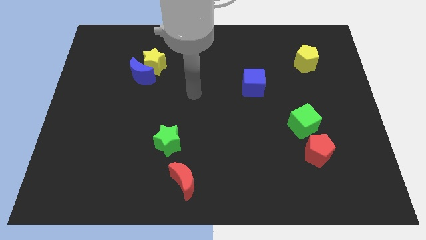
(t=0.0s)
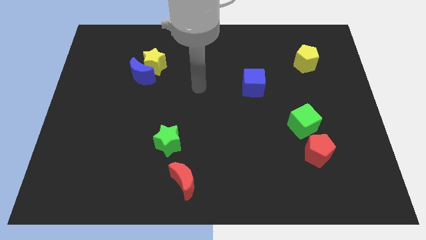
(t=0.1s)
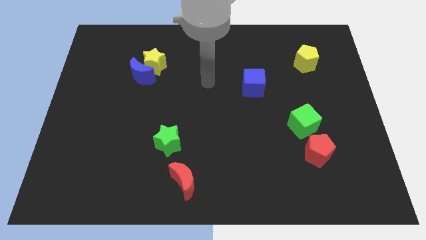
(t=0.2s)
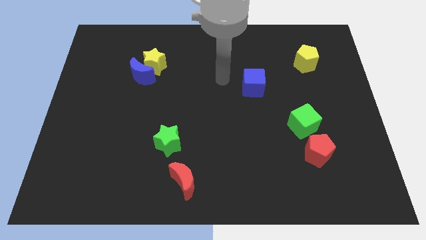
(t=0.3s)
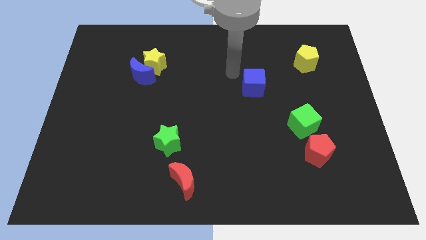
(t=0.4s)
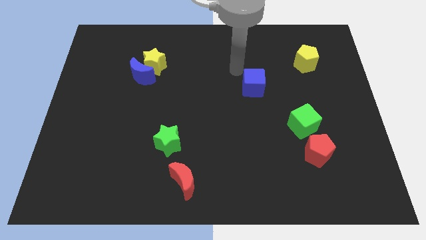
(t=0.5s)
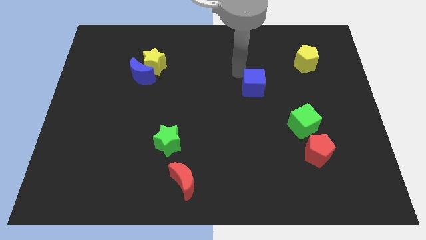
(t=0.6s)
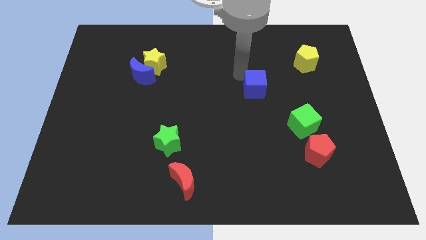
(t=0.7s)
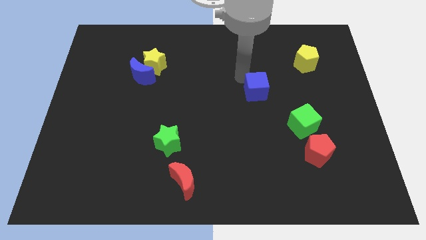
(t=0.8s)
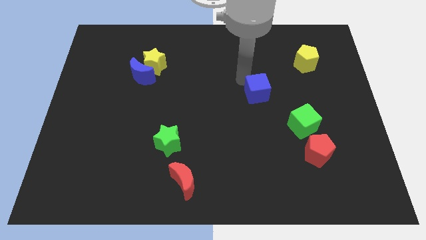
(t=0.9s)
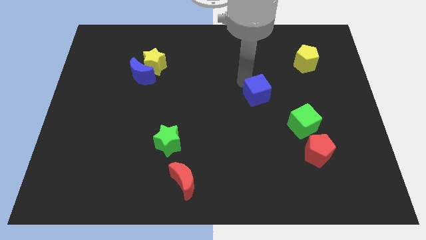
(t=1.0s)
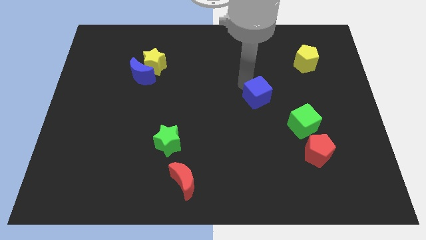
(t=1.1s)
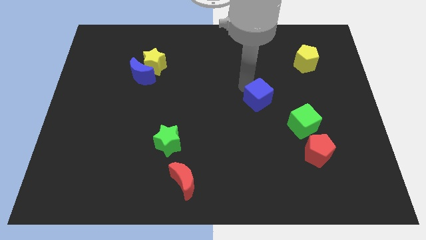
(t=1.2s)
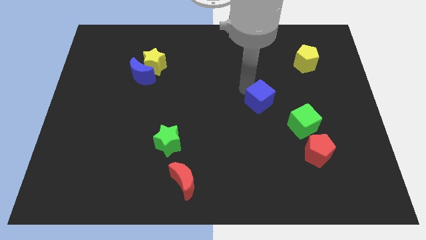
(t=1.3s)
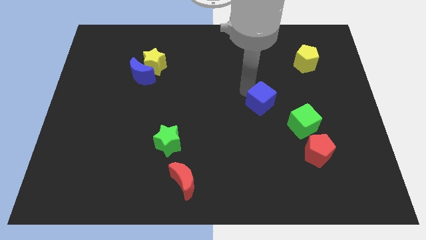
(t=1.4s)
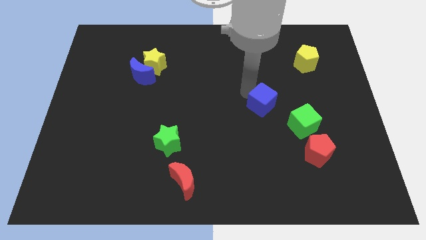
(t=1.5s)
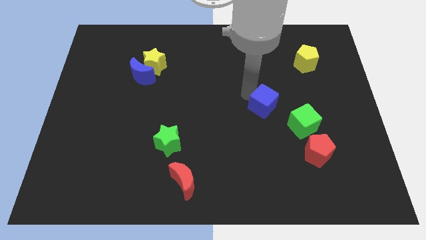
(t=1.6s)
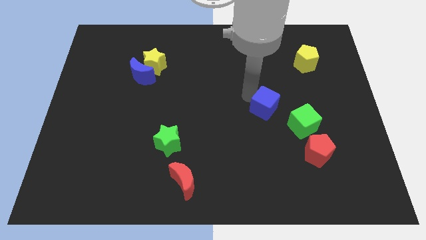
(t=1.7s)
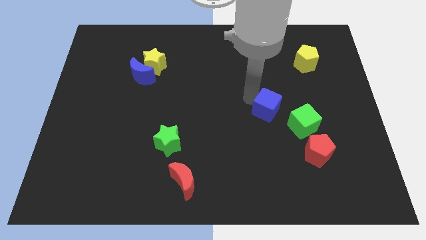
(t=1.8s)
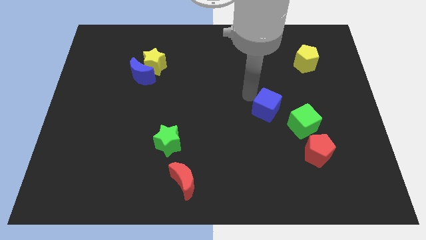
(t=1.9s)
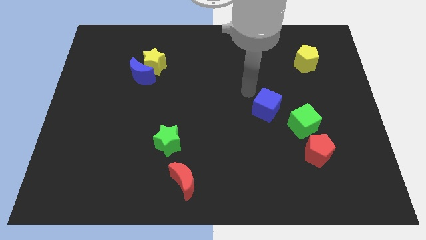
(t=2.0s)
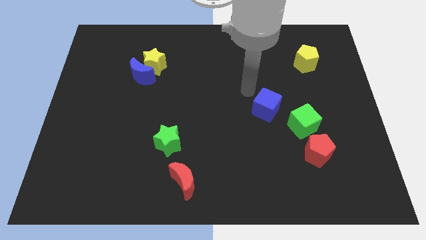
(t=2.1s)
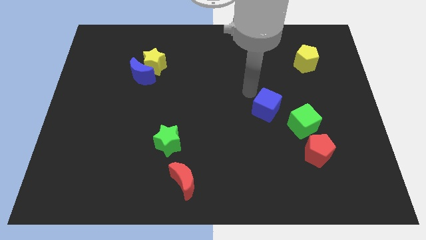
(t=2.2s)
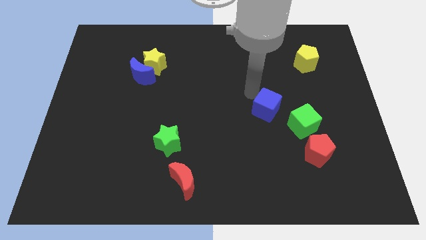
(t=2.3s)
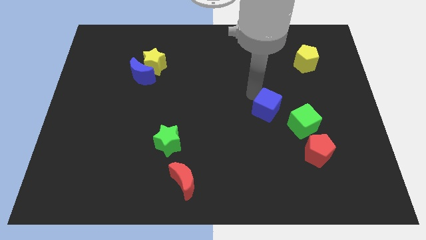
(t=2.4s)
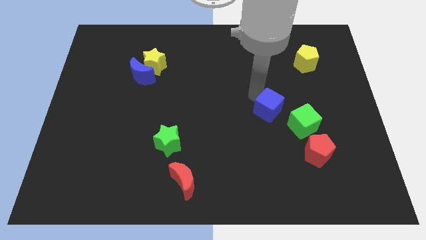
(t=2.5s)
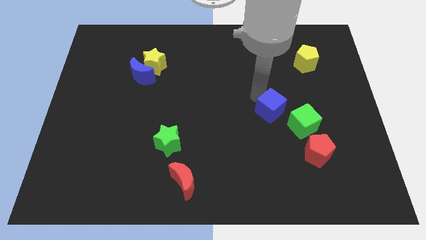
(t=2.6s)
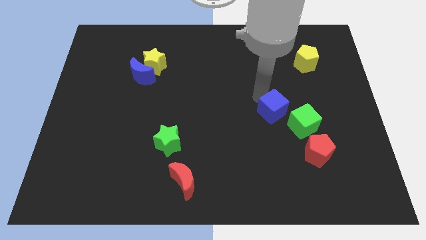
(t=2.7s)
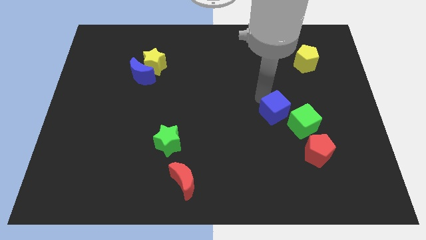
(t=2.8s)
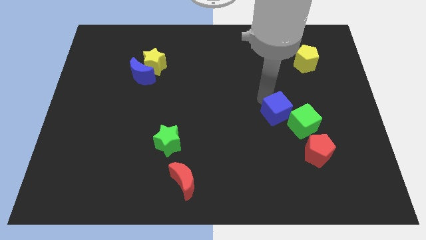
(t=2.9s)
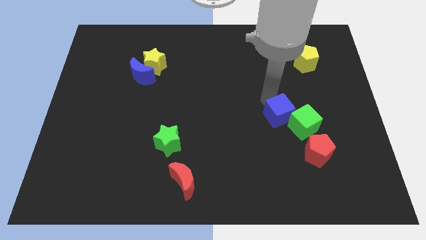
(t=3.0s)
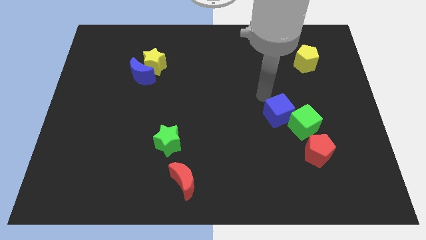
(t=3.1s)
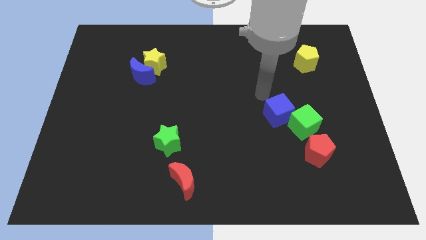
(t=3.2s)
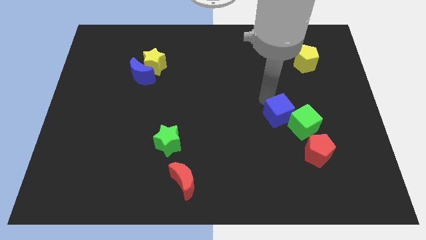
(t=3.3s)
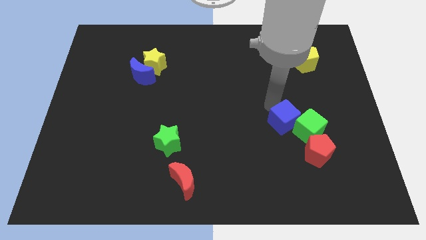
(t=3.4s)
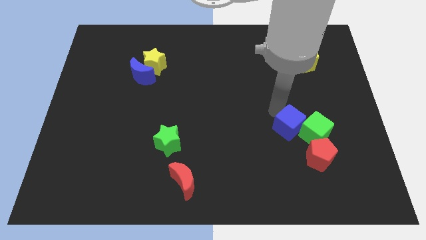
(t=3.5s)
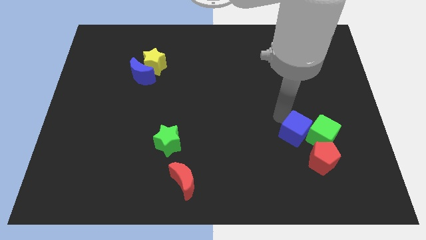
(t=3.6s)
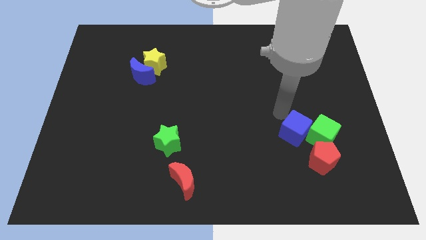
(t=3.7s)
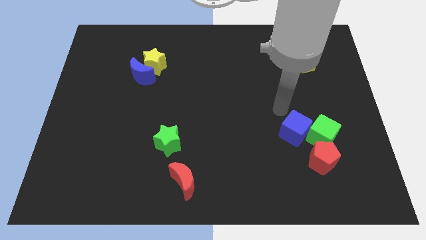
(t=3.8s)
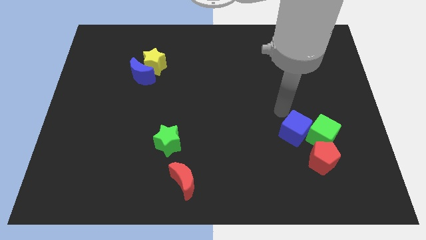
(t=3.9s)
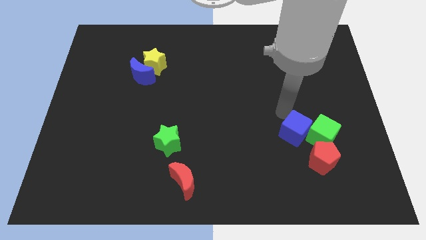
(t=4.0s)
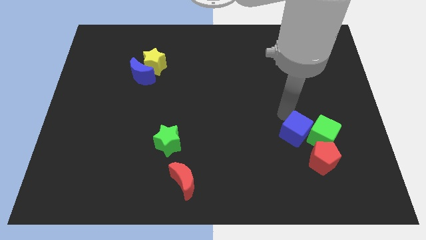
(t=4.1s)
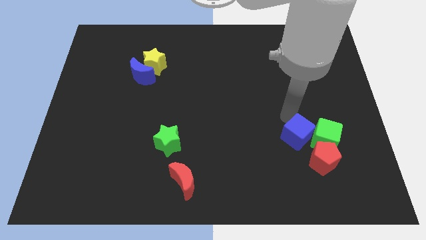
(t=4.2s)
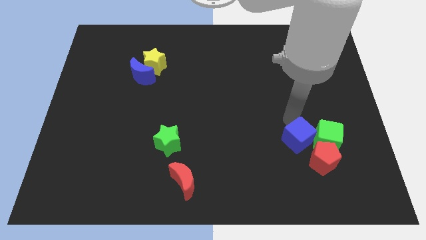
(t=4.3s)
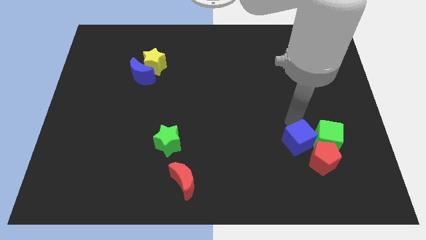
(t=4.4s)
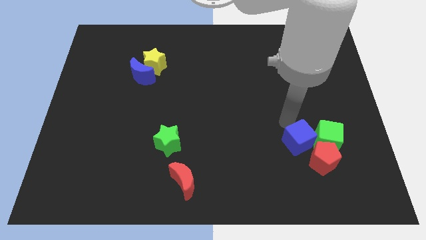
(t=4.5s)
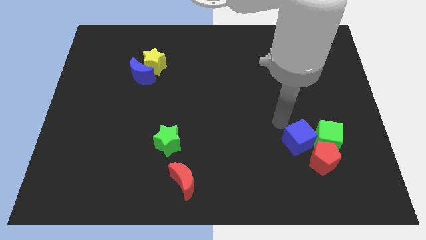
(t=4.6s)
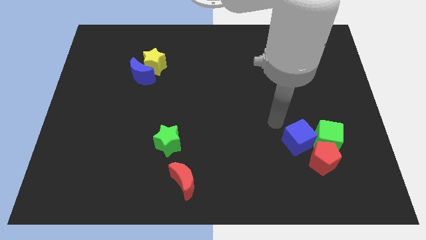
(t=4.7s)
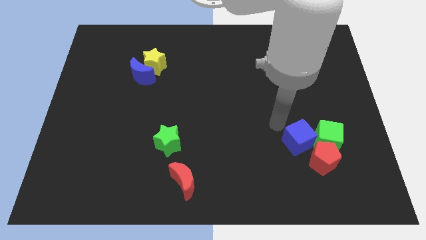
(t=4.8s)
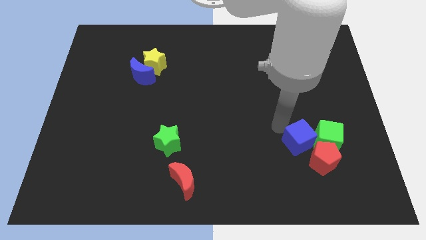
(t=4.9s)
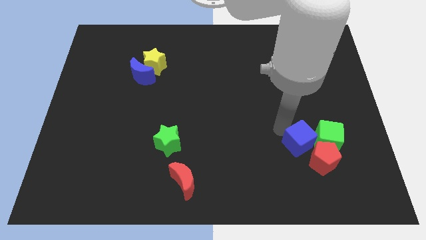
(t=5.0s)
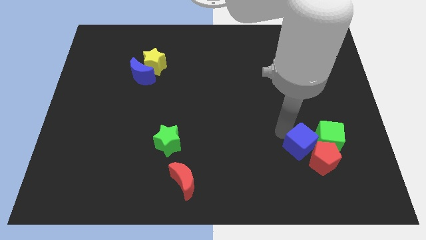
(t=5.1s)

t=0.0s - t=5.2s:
put the blue cube towards the red pentagon

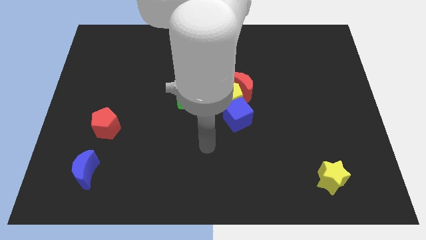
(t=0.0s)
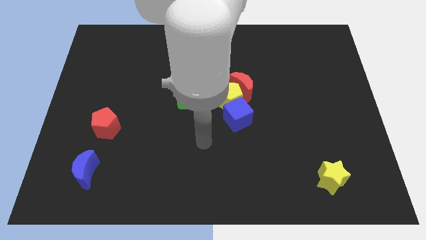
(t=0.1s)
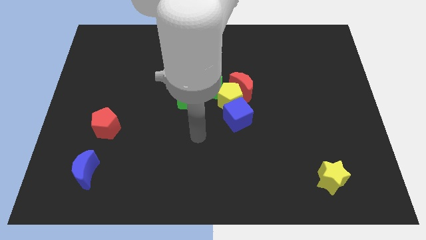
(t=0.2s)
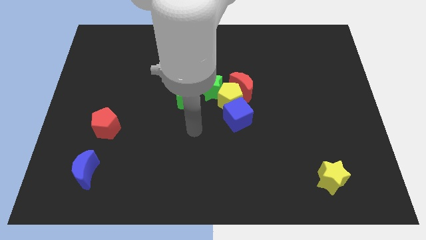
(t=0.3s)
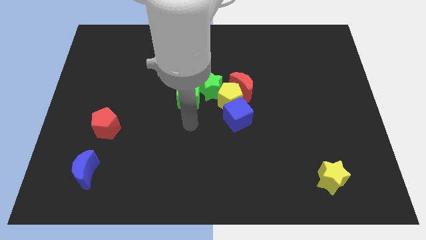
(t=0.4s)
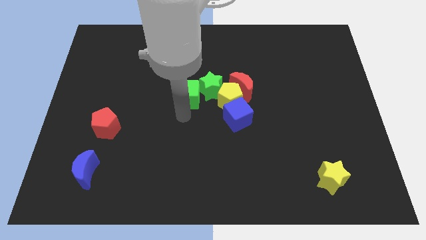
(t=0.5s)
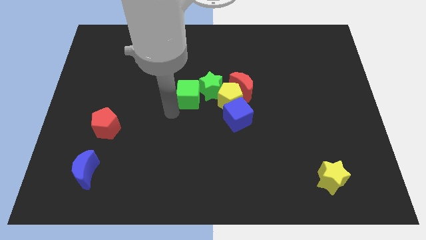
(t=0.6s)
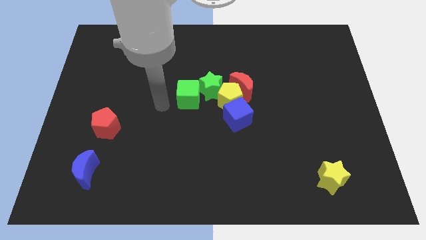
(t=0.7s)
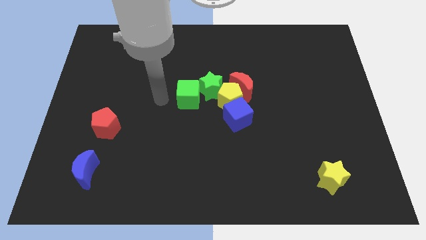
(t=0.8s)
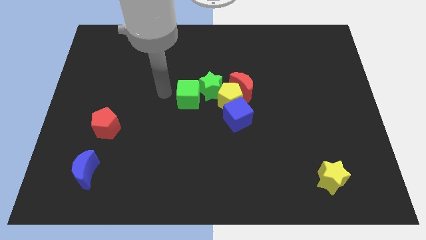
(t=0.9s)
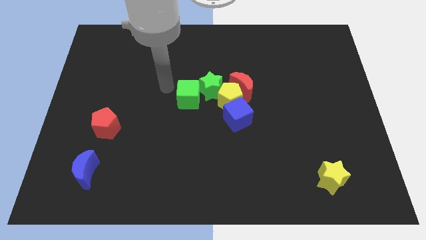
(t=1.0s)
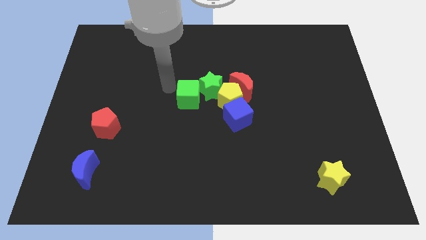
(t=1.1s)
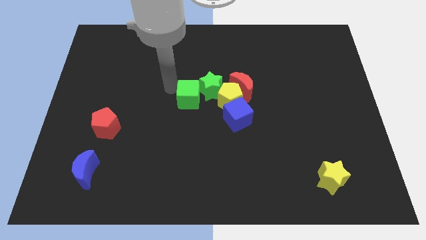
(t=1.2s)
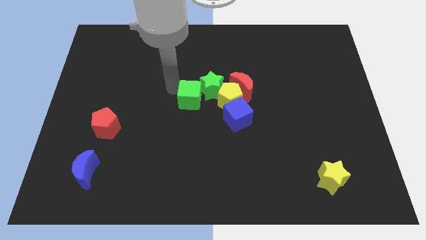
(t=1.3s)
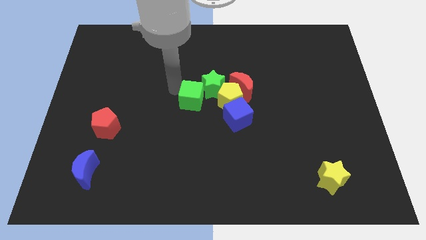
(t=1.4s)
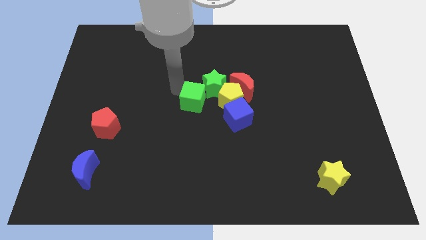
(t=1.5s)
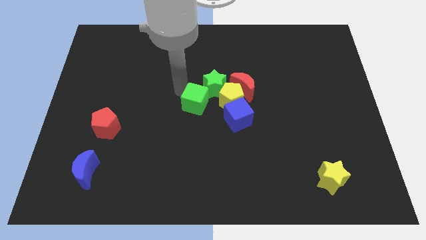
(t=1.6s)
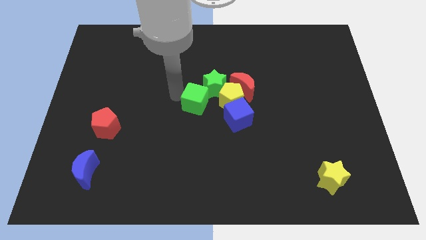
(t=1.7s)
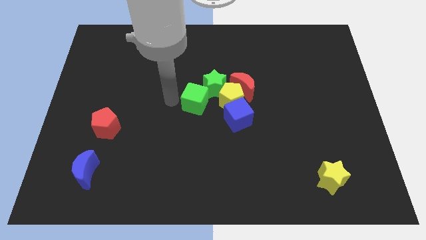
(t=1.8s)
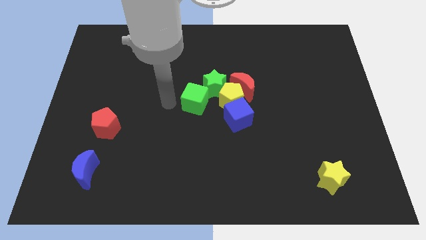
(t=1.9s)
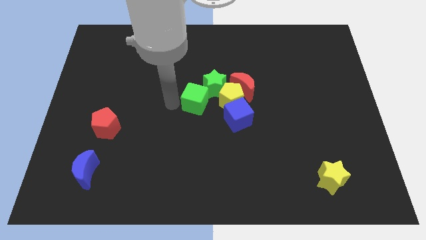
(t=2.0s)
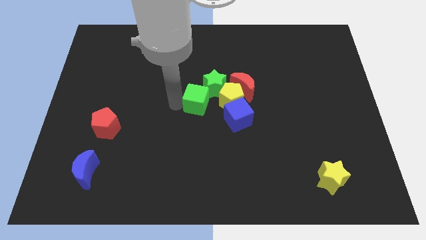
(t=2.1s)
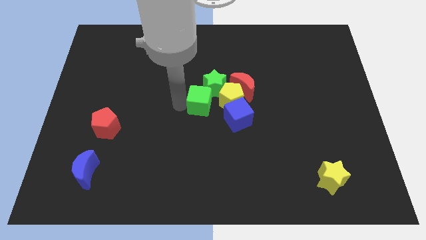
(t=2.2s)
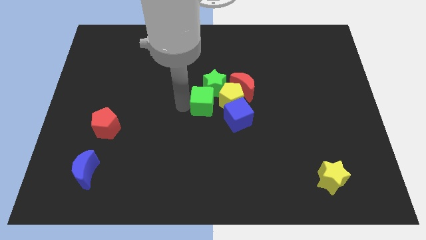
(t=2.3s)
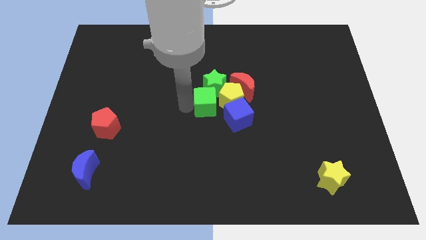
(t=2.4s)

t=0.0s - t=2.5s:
push the green cube to the yellow pentagon
